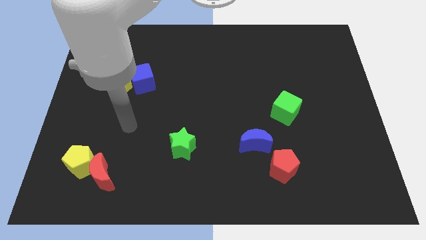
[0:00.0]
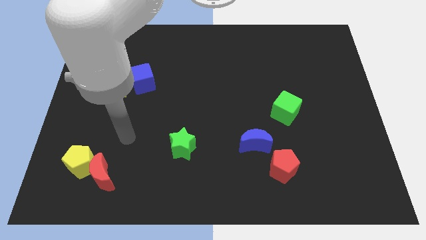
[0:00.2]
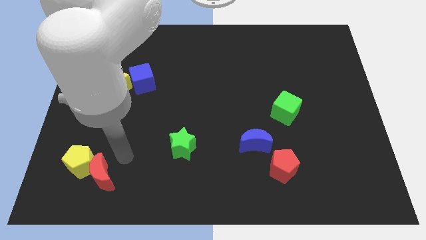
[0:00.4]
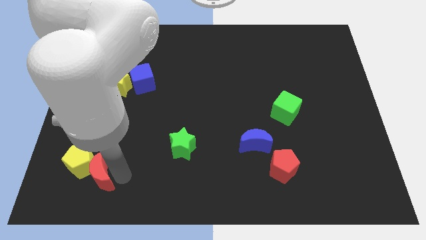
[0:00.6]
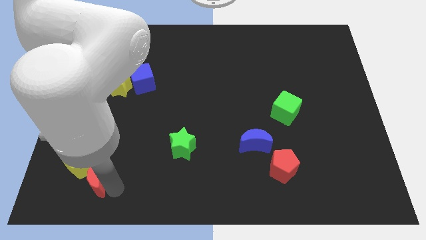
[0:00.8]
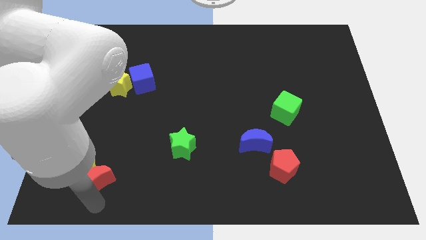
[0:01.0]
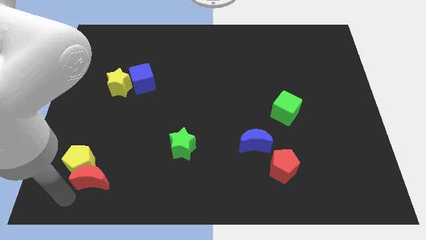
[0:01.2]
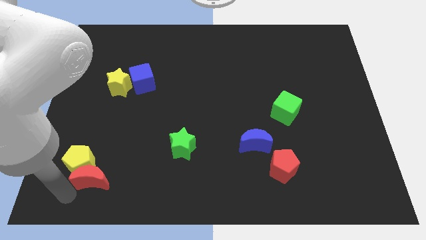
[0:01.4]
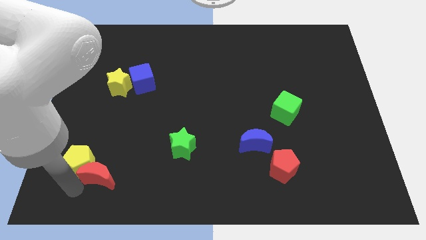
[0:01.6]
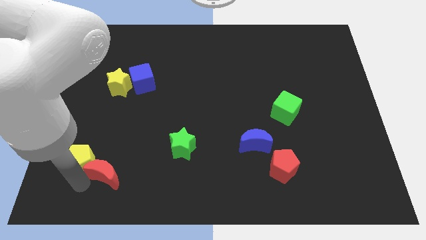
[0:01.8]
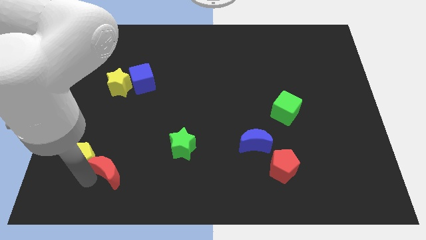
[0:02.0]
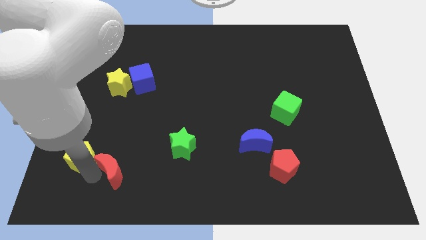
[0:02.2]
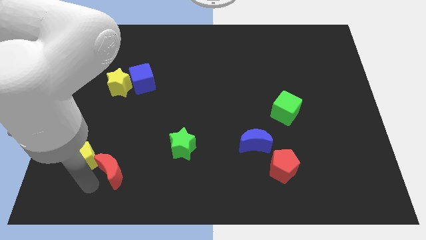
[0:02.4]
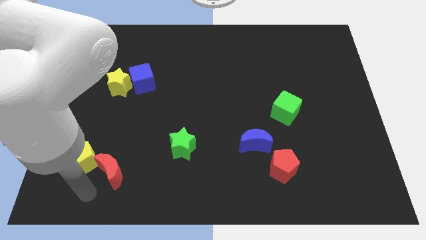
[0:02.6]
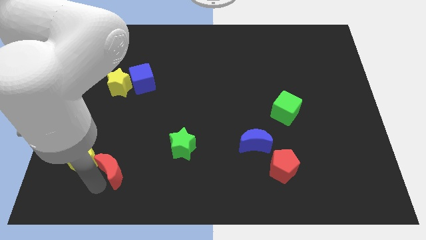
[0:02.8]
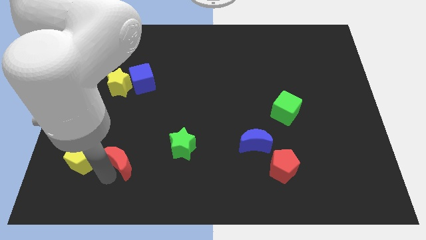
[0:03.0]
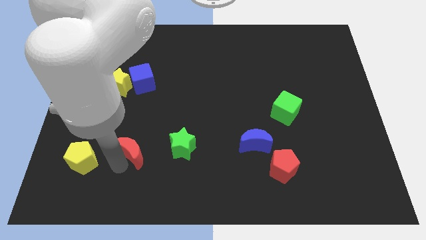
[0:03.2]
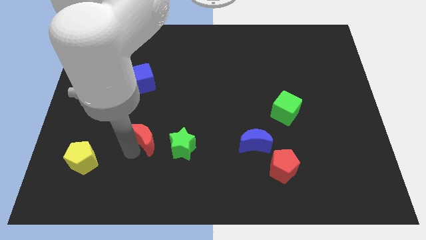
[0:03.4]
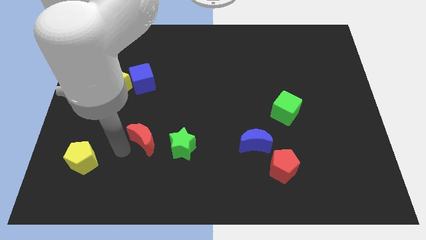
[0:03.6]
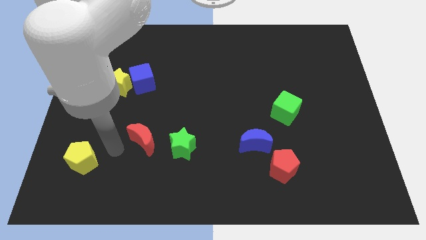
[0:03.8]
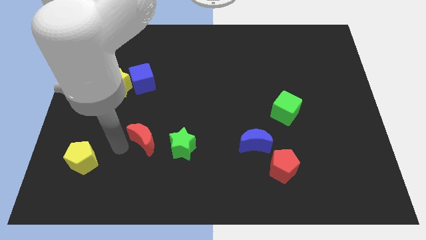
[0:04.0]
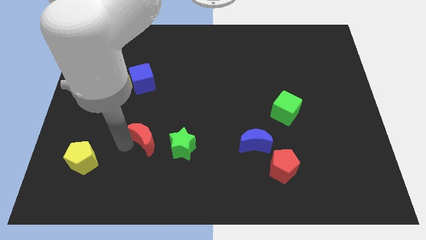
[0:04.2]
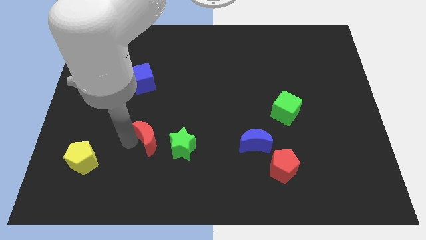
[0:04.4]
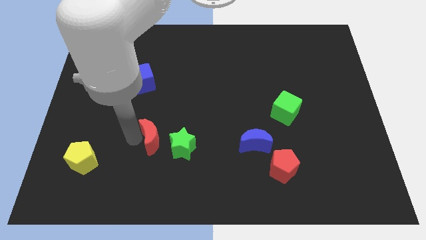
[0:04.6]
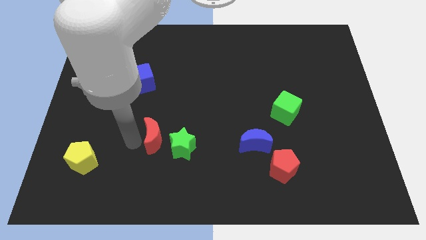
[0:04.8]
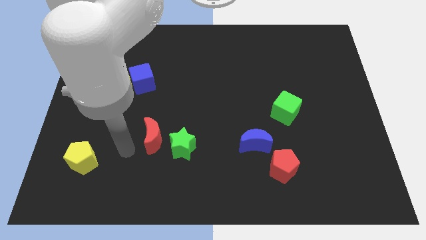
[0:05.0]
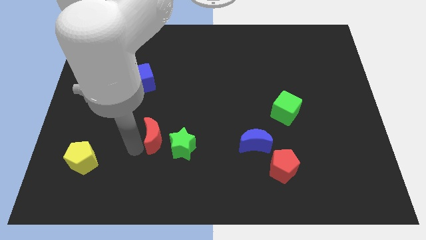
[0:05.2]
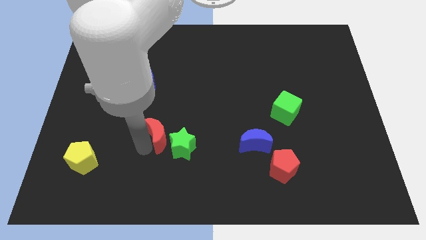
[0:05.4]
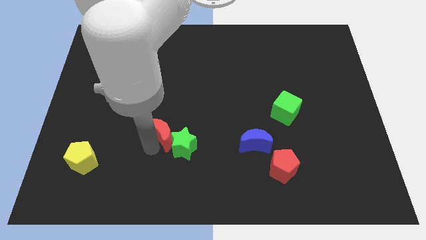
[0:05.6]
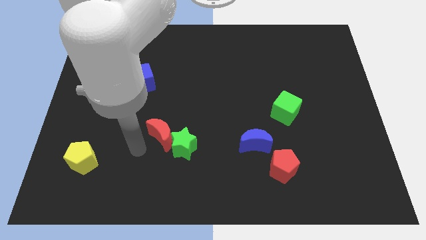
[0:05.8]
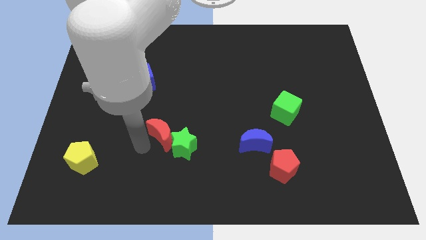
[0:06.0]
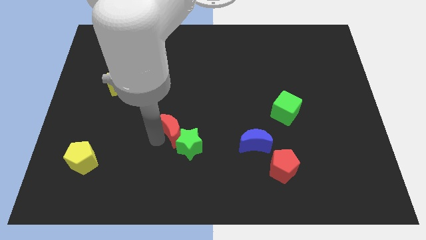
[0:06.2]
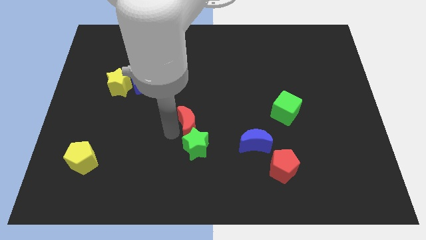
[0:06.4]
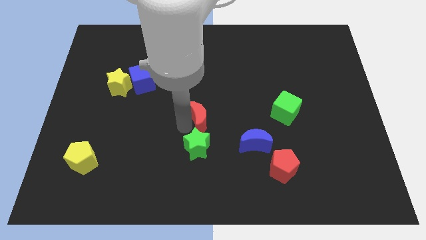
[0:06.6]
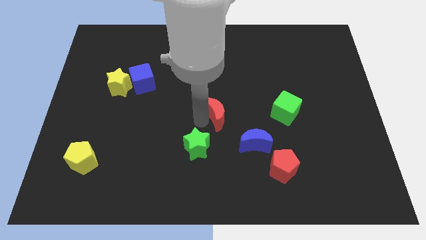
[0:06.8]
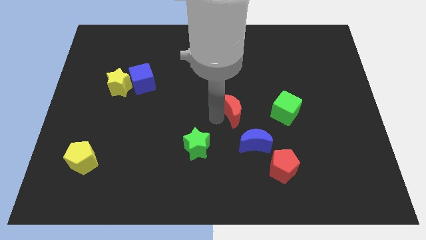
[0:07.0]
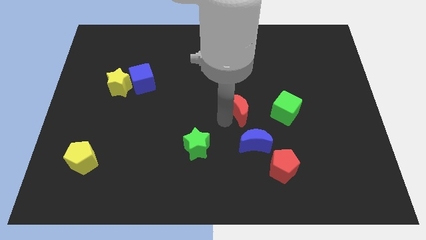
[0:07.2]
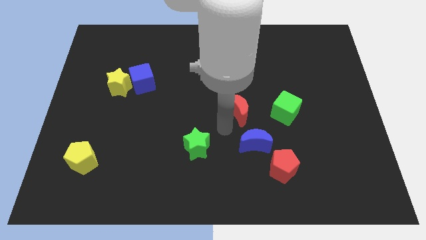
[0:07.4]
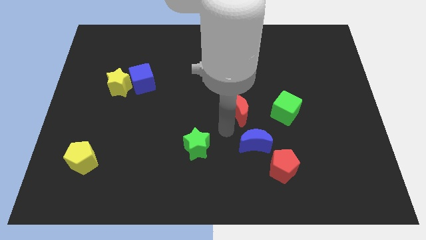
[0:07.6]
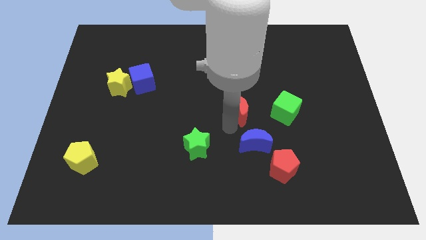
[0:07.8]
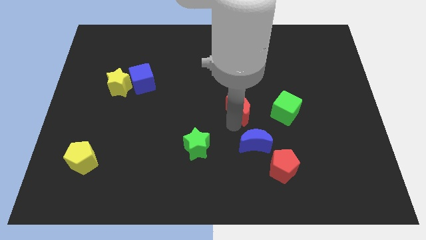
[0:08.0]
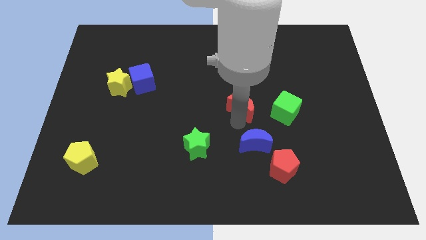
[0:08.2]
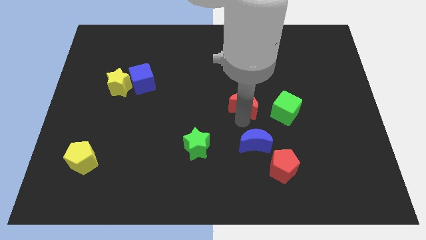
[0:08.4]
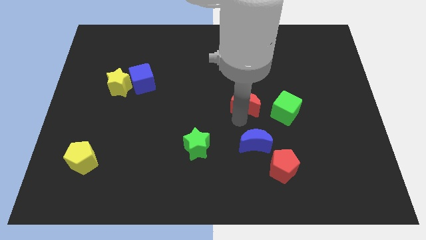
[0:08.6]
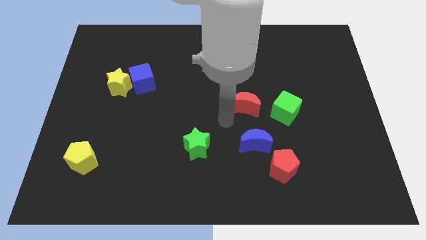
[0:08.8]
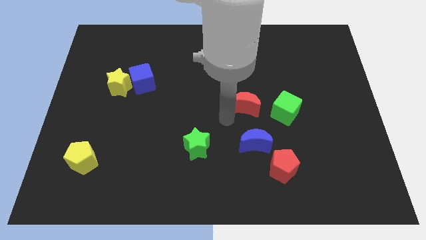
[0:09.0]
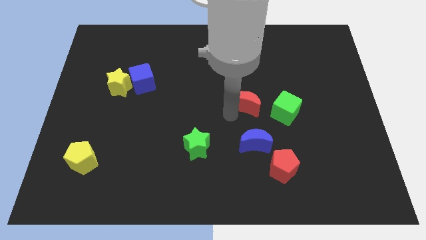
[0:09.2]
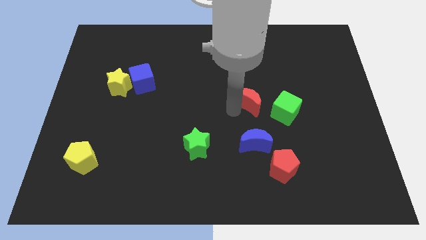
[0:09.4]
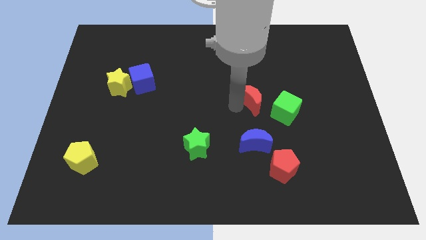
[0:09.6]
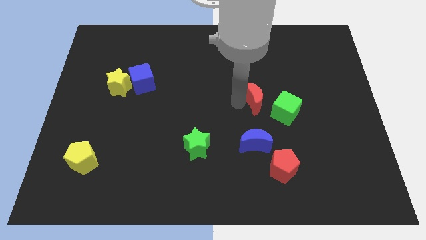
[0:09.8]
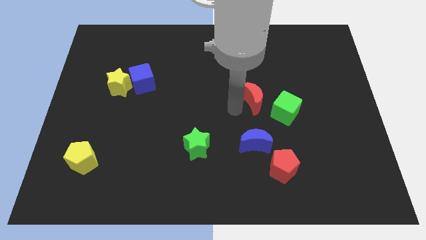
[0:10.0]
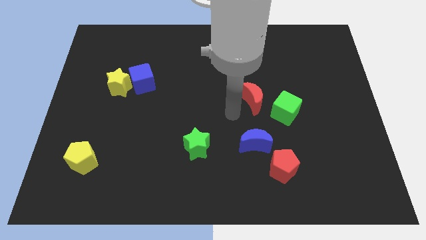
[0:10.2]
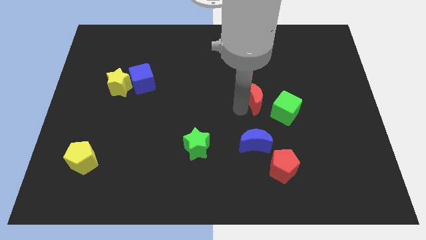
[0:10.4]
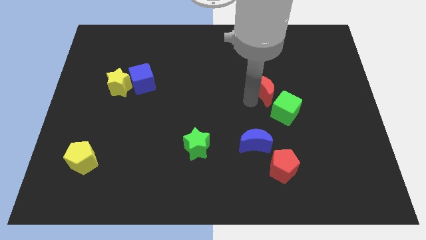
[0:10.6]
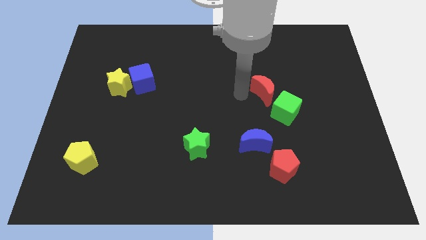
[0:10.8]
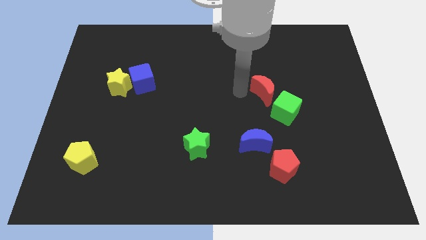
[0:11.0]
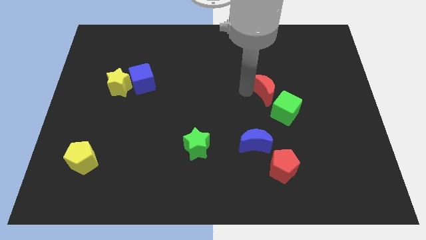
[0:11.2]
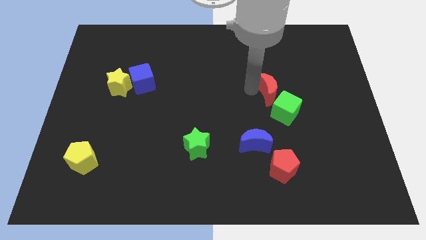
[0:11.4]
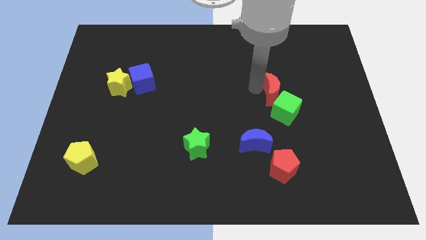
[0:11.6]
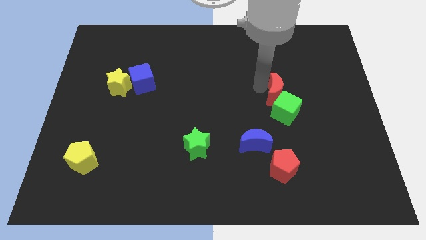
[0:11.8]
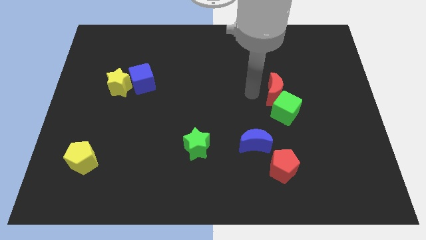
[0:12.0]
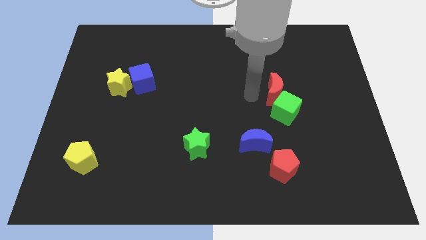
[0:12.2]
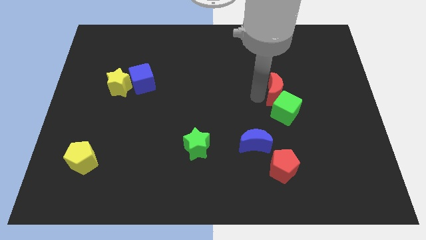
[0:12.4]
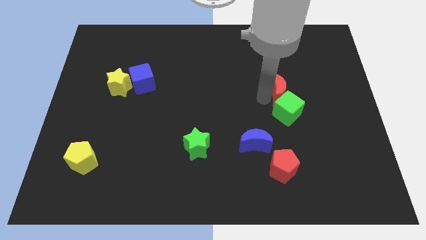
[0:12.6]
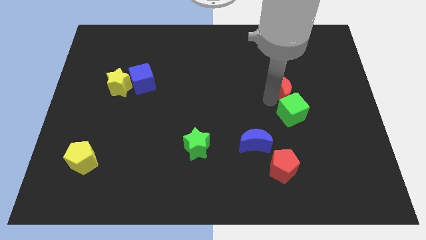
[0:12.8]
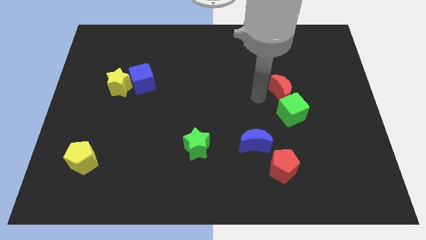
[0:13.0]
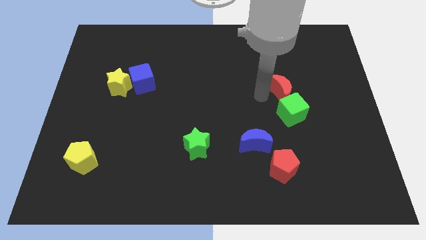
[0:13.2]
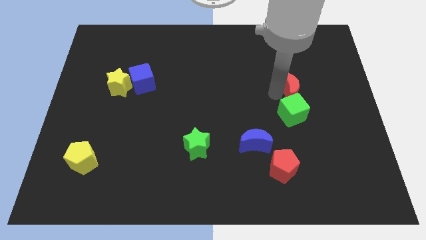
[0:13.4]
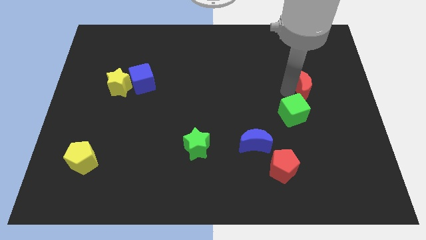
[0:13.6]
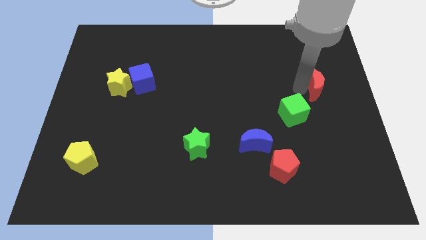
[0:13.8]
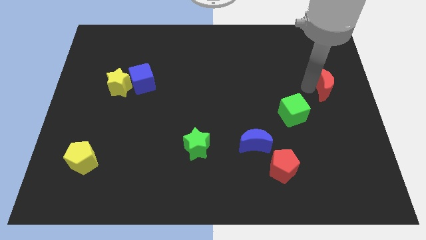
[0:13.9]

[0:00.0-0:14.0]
push the red moon to the right side

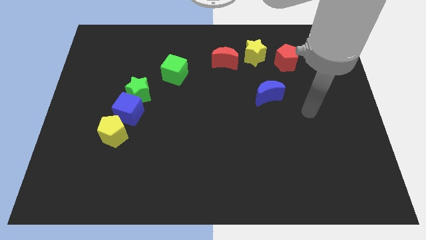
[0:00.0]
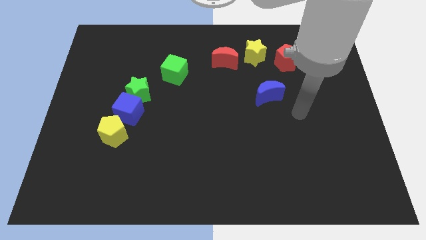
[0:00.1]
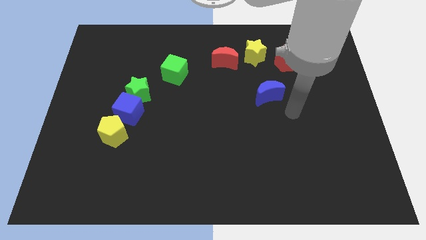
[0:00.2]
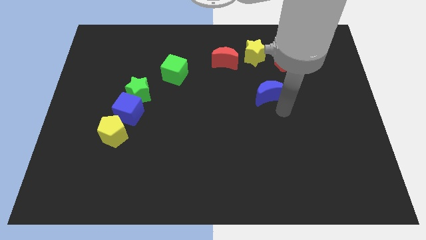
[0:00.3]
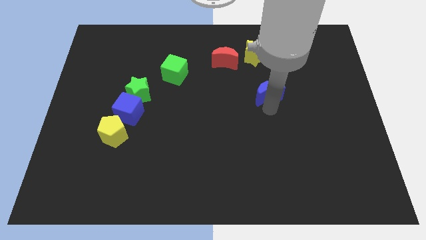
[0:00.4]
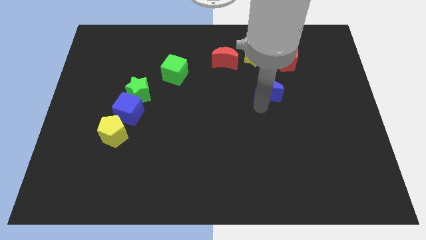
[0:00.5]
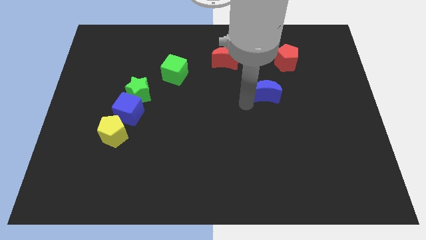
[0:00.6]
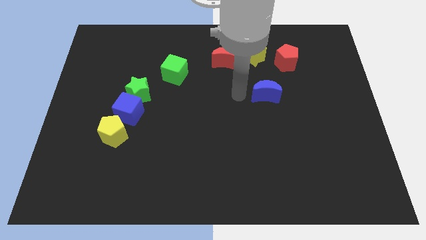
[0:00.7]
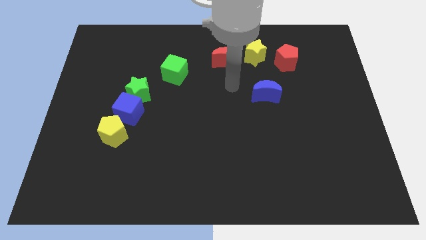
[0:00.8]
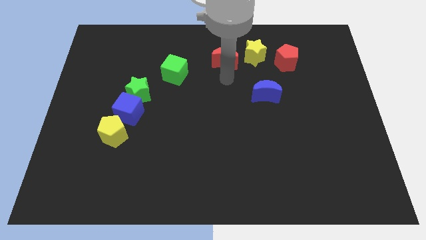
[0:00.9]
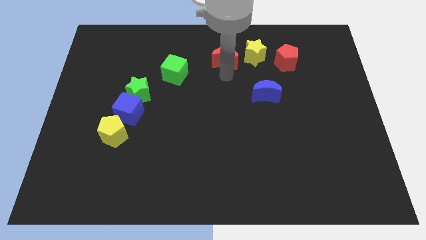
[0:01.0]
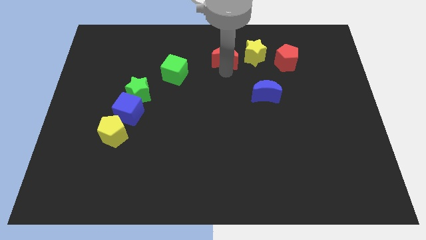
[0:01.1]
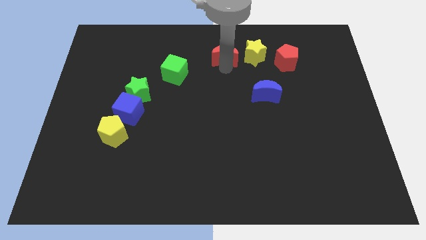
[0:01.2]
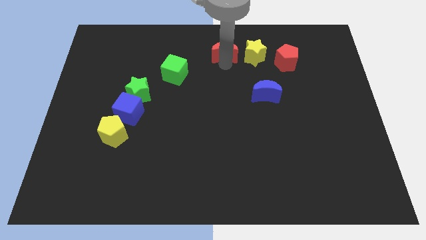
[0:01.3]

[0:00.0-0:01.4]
slide the red moon to the top side
